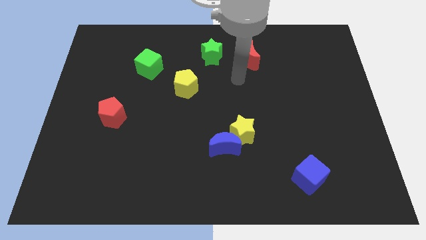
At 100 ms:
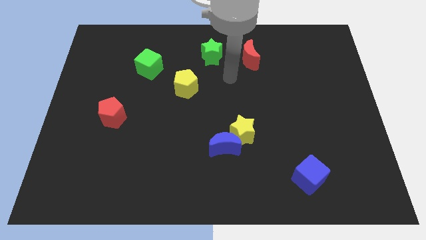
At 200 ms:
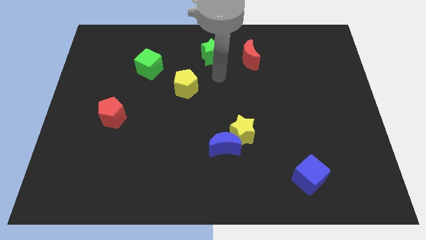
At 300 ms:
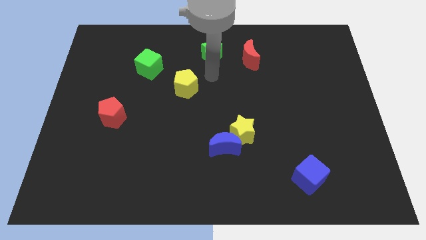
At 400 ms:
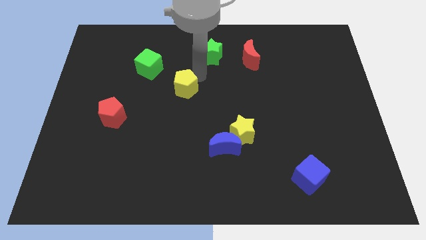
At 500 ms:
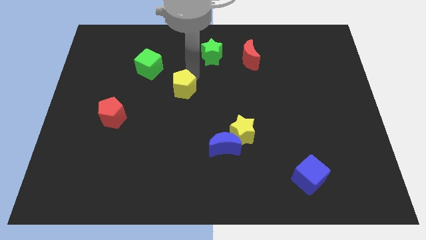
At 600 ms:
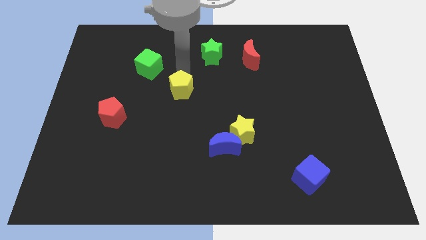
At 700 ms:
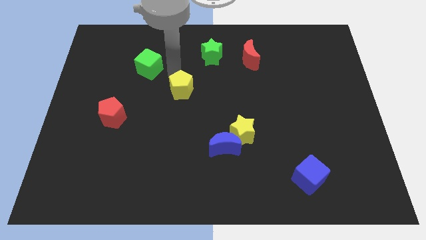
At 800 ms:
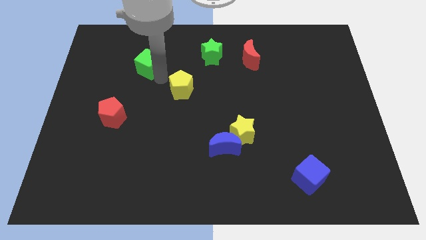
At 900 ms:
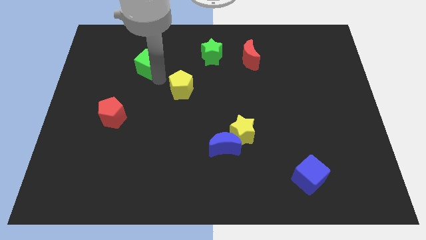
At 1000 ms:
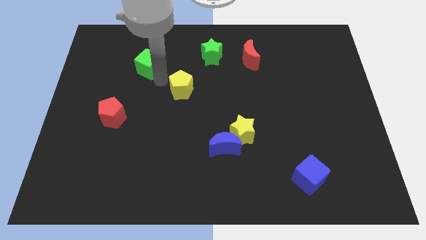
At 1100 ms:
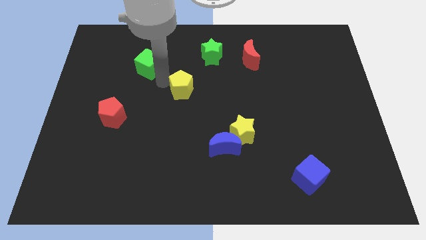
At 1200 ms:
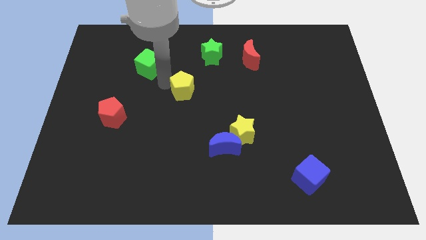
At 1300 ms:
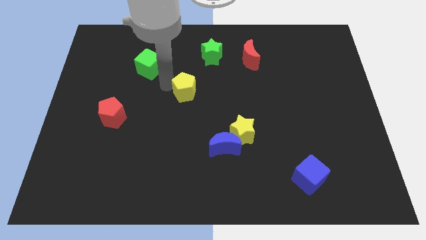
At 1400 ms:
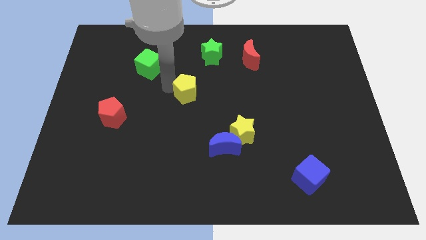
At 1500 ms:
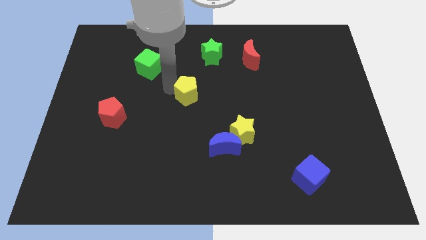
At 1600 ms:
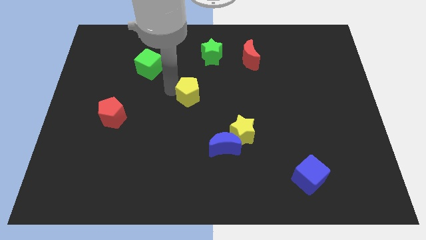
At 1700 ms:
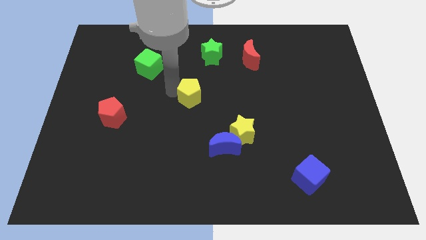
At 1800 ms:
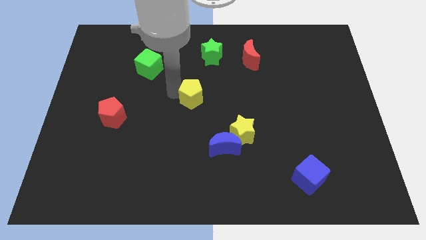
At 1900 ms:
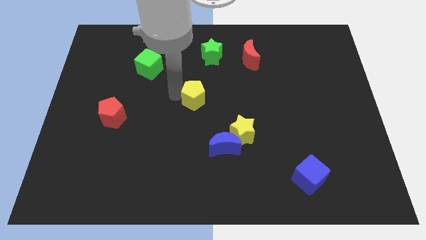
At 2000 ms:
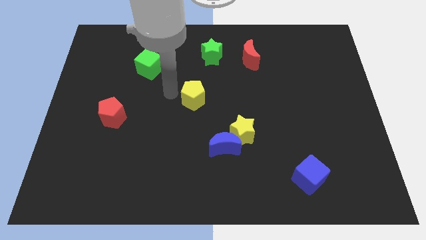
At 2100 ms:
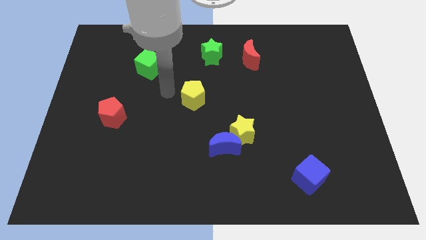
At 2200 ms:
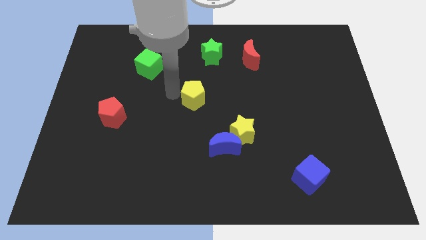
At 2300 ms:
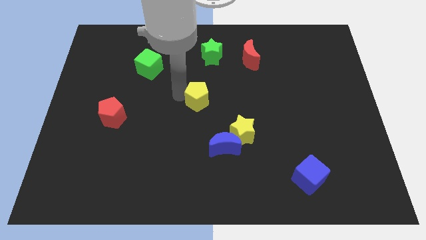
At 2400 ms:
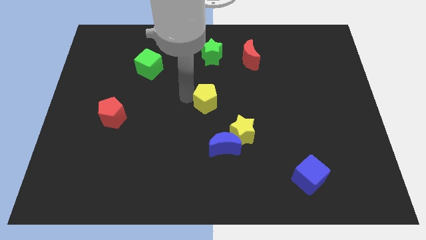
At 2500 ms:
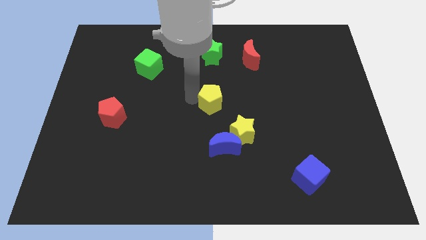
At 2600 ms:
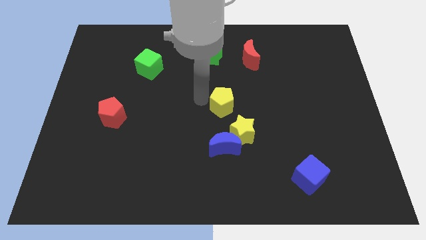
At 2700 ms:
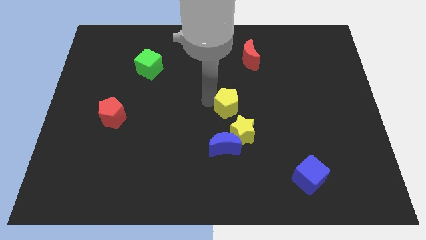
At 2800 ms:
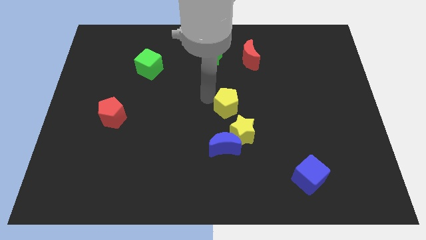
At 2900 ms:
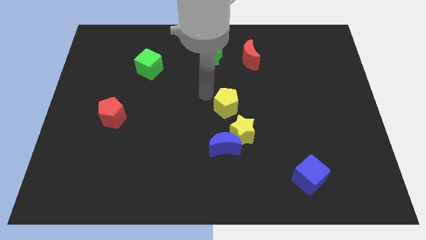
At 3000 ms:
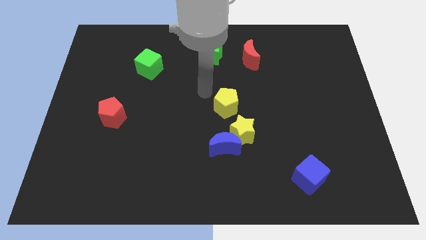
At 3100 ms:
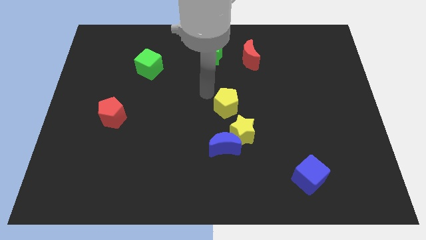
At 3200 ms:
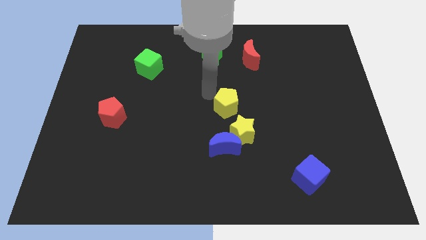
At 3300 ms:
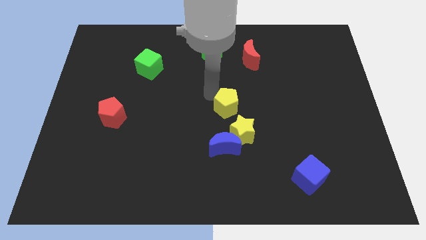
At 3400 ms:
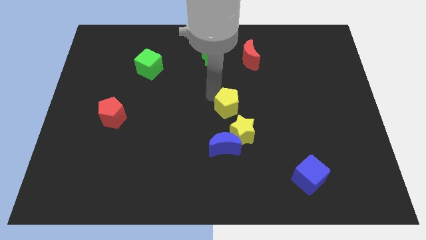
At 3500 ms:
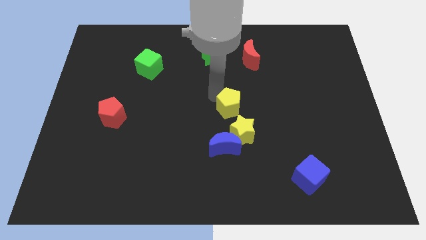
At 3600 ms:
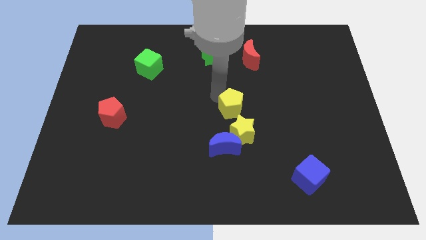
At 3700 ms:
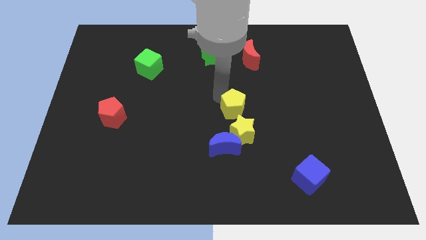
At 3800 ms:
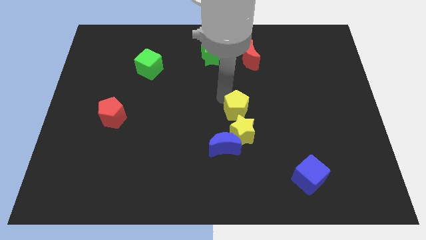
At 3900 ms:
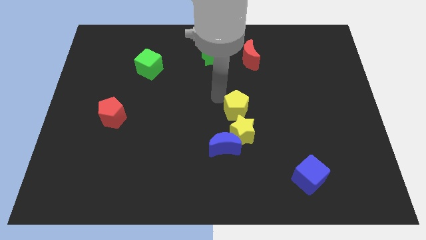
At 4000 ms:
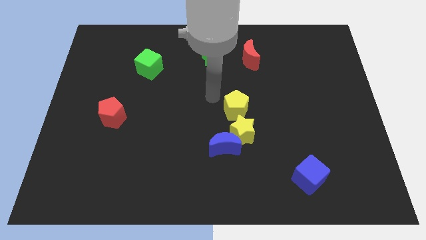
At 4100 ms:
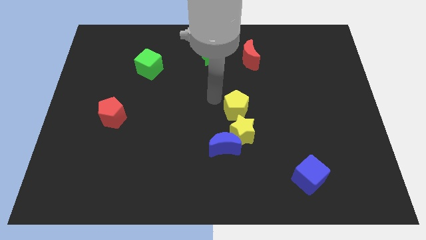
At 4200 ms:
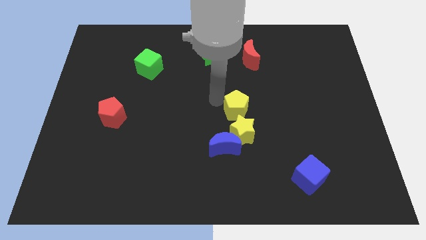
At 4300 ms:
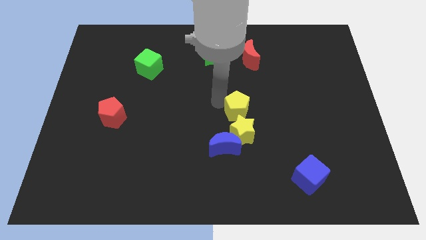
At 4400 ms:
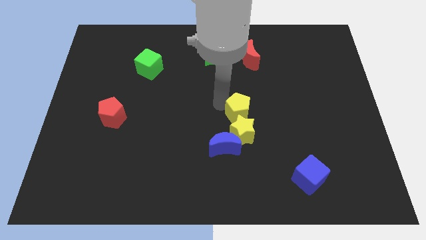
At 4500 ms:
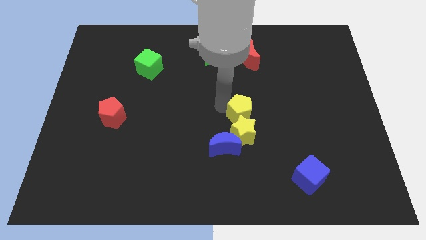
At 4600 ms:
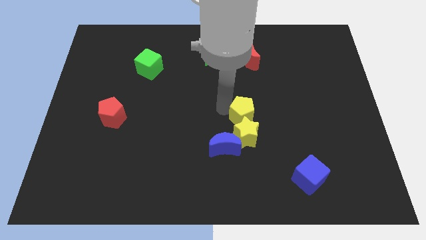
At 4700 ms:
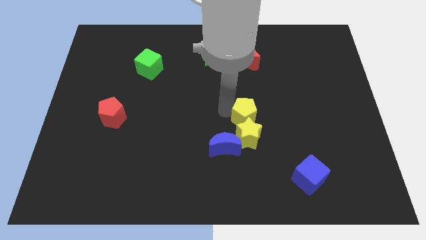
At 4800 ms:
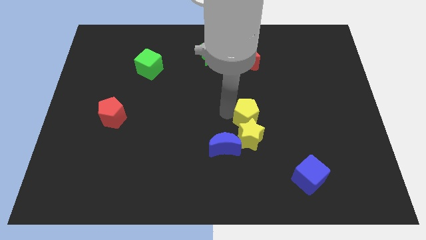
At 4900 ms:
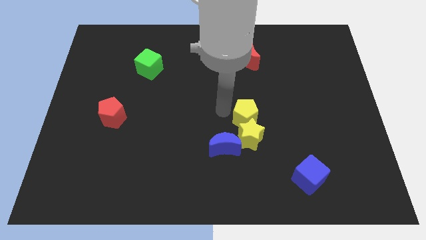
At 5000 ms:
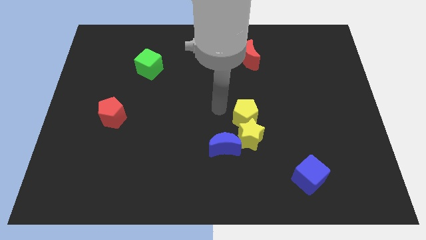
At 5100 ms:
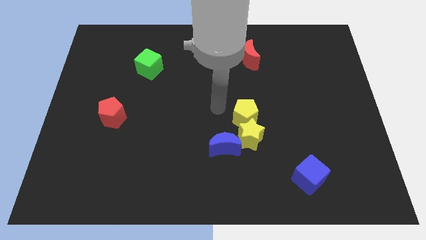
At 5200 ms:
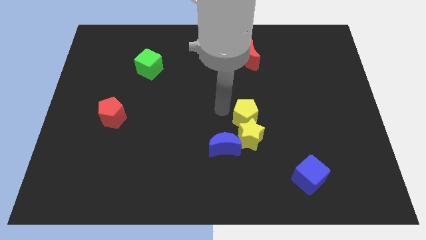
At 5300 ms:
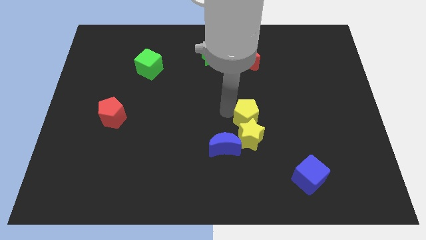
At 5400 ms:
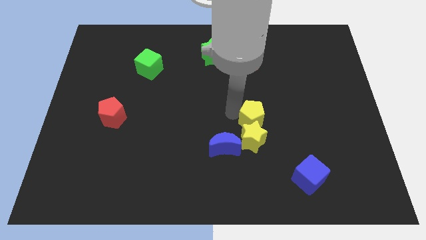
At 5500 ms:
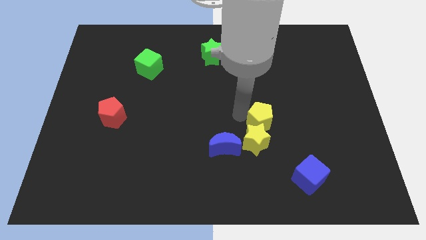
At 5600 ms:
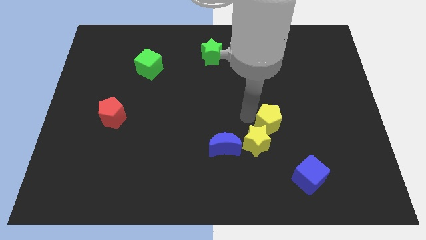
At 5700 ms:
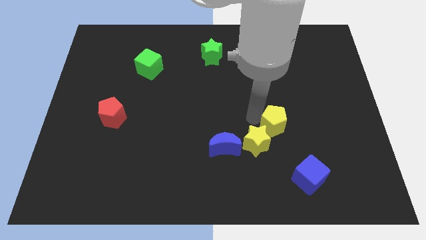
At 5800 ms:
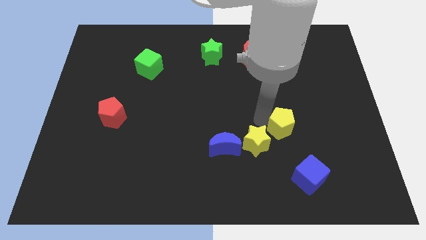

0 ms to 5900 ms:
slide the yellow pentagon above the blue cube

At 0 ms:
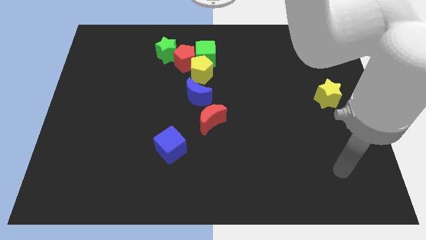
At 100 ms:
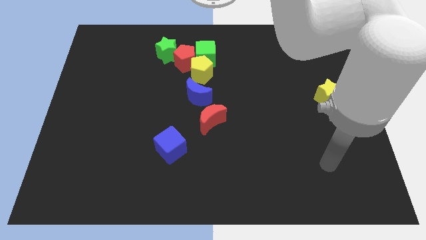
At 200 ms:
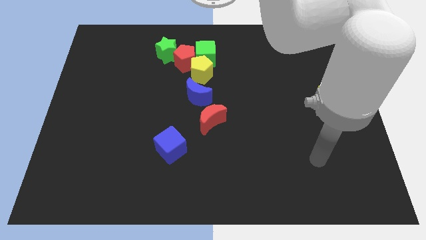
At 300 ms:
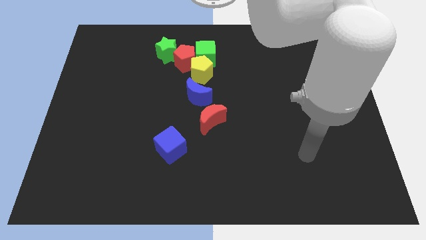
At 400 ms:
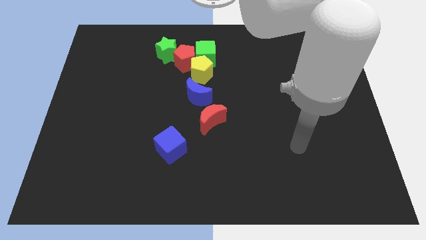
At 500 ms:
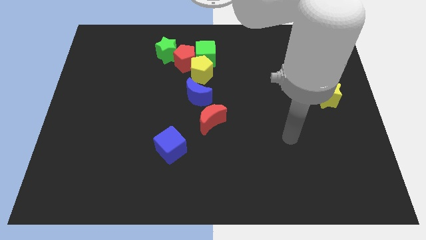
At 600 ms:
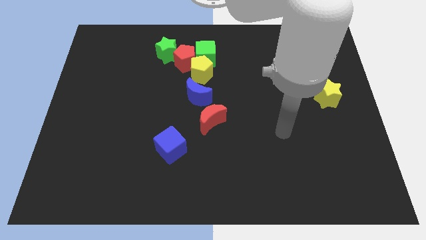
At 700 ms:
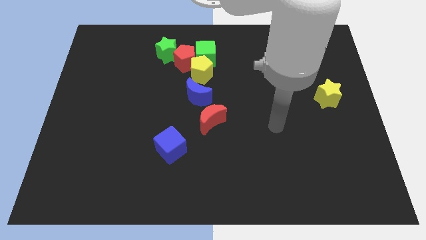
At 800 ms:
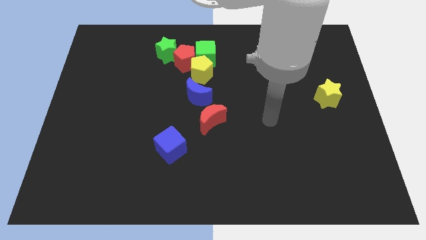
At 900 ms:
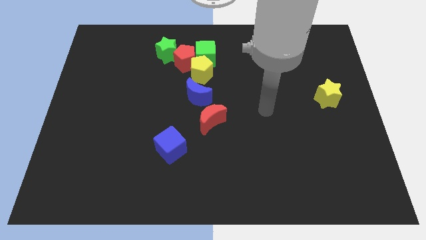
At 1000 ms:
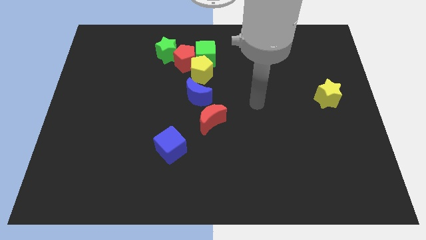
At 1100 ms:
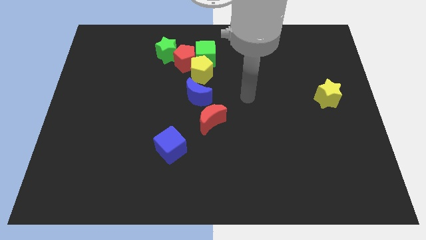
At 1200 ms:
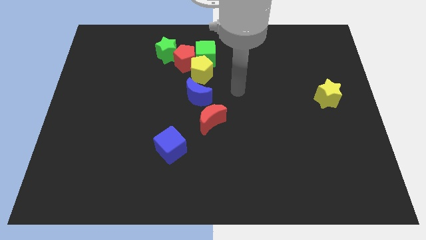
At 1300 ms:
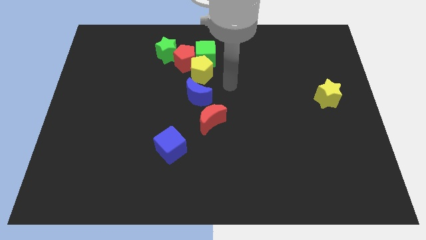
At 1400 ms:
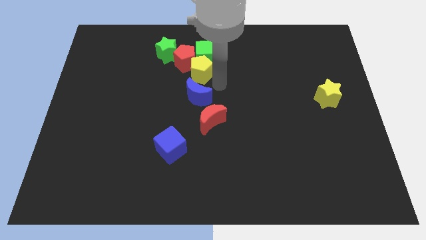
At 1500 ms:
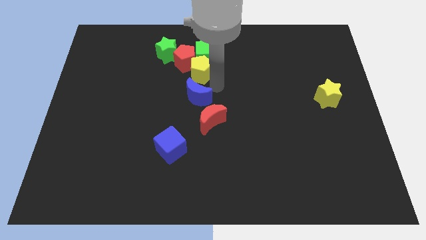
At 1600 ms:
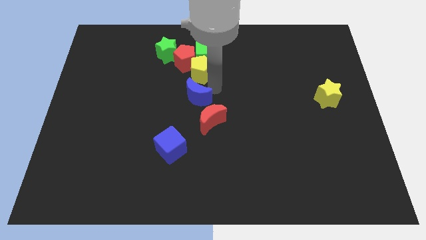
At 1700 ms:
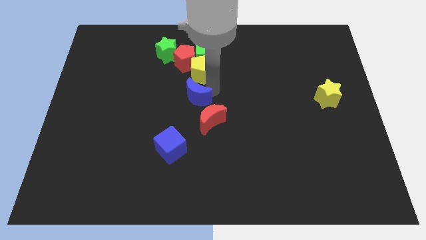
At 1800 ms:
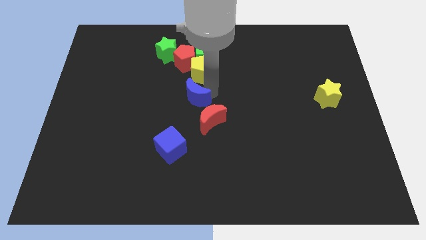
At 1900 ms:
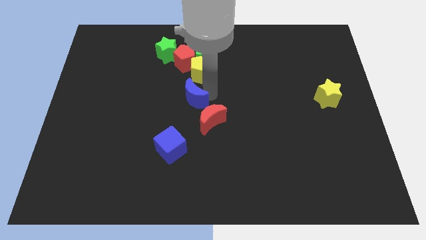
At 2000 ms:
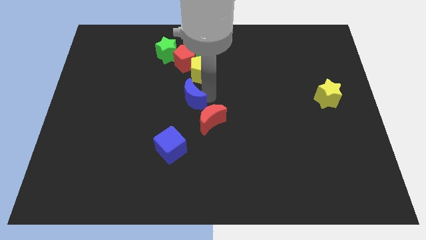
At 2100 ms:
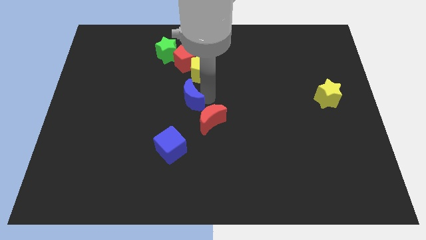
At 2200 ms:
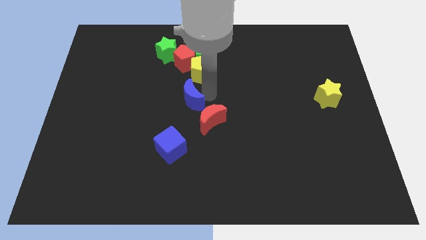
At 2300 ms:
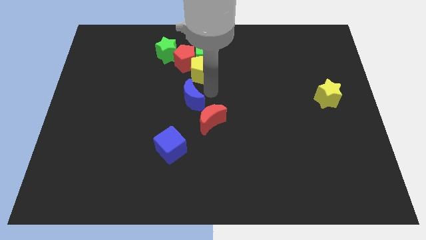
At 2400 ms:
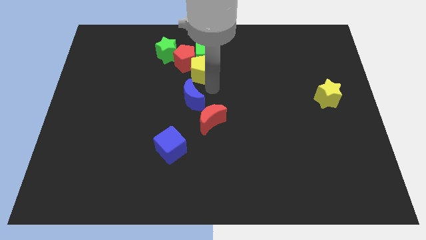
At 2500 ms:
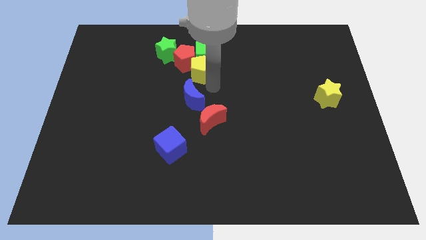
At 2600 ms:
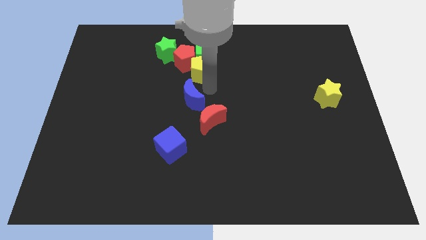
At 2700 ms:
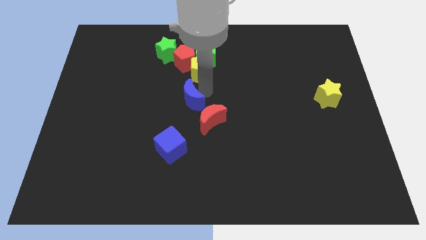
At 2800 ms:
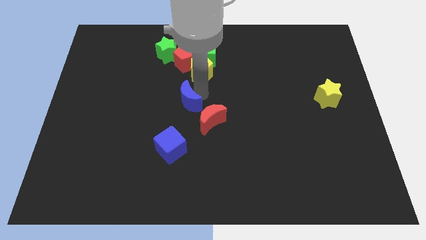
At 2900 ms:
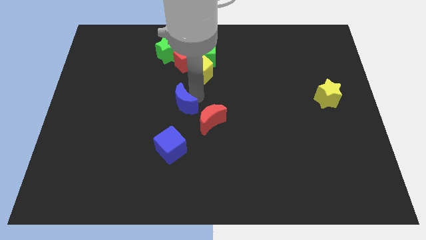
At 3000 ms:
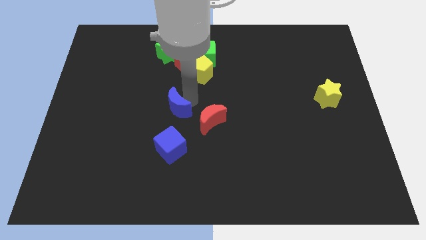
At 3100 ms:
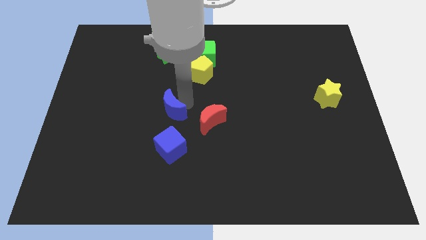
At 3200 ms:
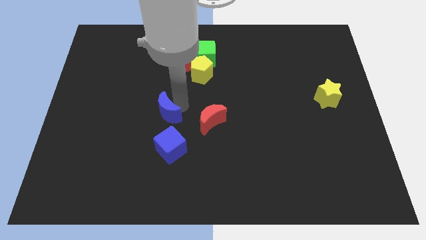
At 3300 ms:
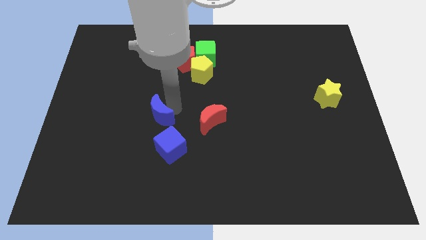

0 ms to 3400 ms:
put the blue moon to the top left of the blue cube
